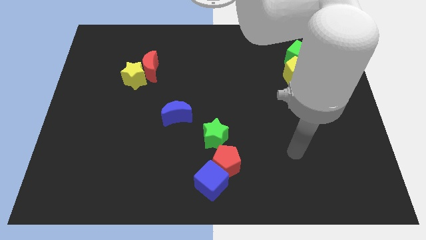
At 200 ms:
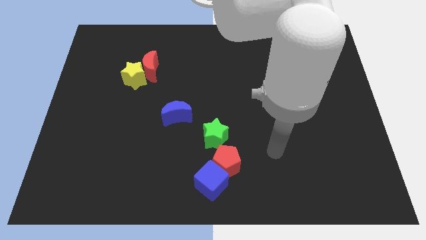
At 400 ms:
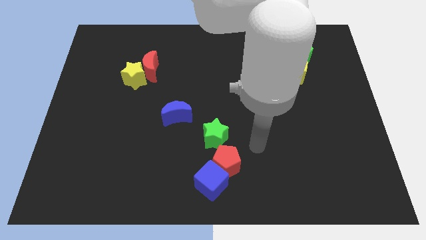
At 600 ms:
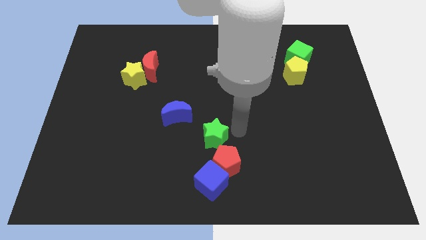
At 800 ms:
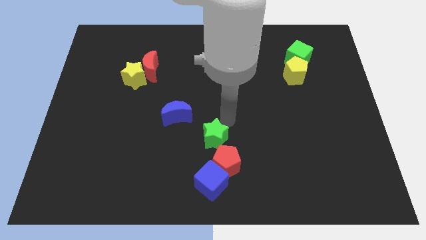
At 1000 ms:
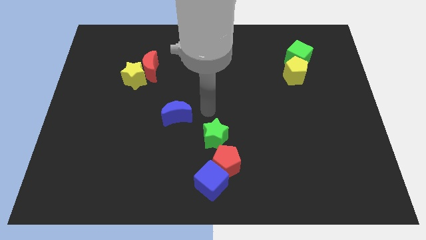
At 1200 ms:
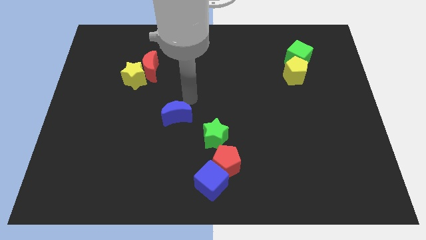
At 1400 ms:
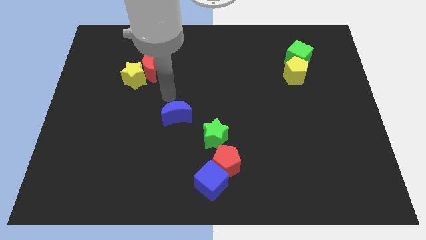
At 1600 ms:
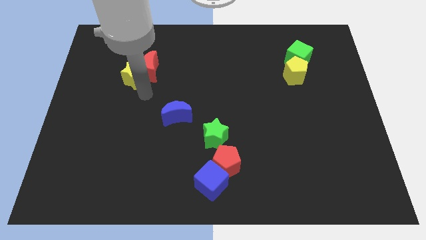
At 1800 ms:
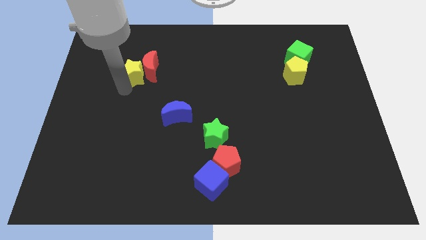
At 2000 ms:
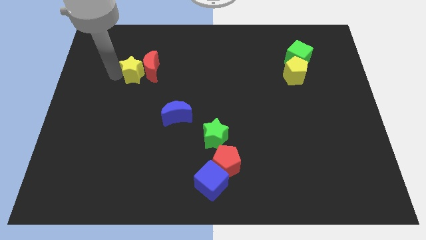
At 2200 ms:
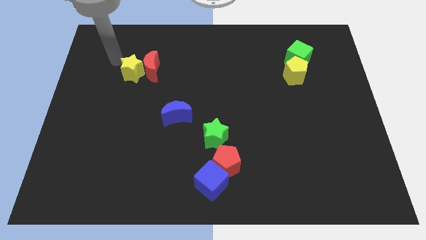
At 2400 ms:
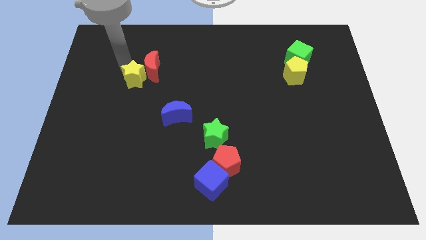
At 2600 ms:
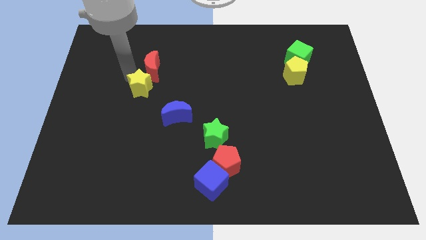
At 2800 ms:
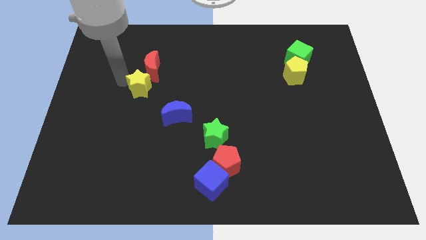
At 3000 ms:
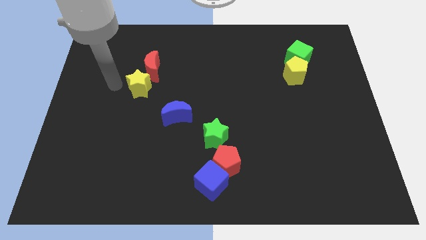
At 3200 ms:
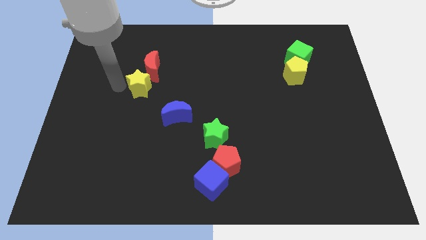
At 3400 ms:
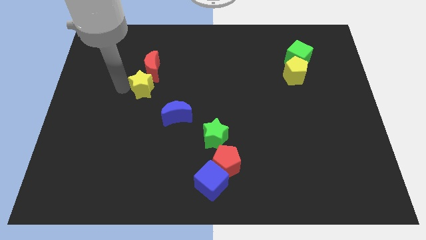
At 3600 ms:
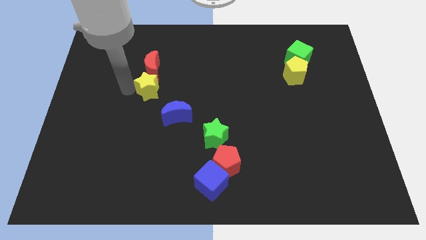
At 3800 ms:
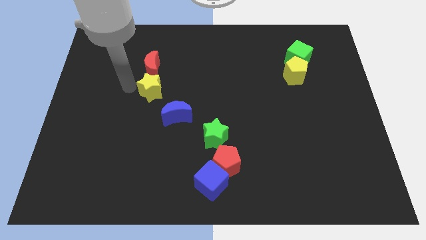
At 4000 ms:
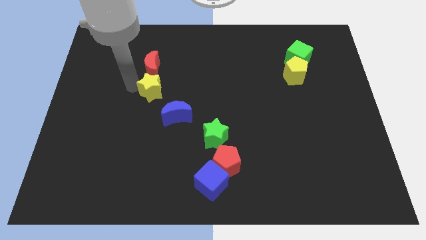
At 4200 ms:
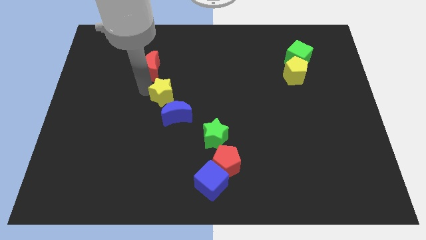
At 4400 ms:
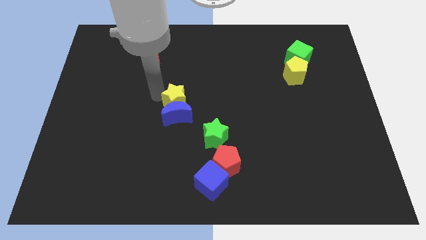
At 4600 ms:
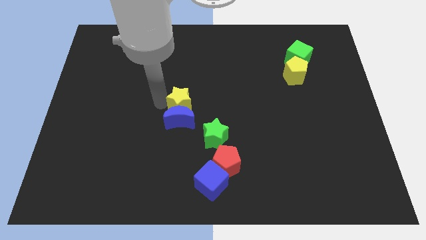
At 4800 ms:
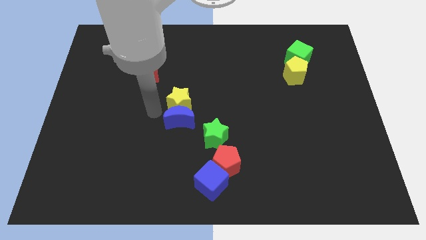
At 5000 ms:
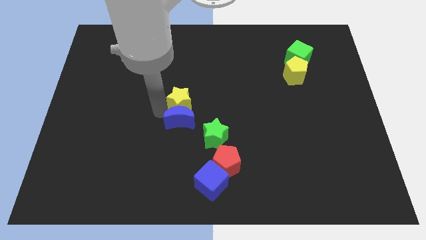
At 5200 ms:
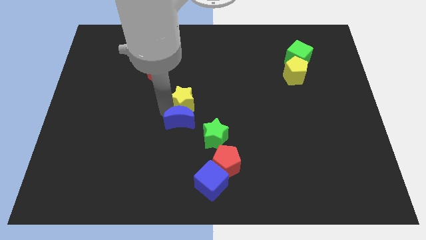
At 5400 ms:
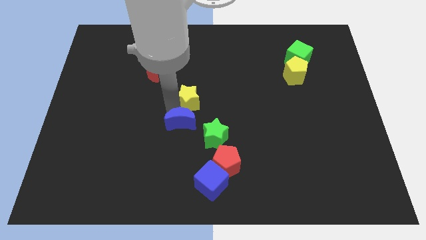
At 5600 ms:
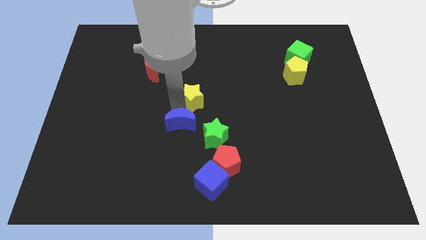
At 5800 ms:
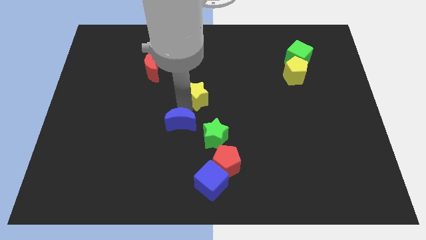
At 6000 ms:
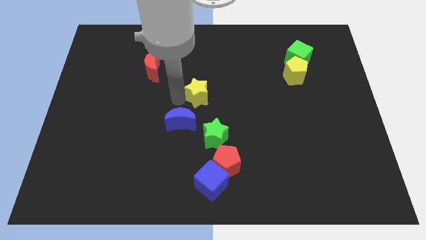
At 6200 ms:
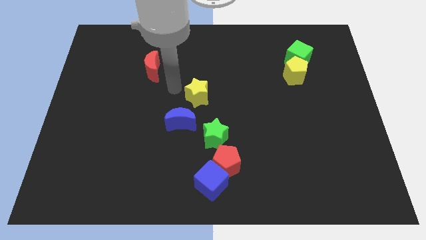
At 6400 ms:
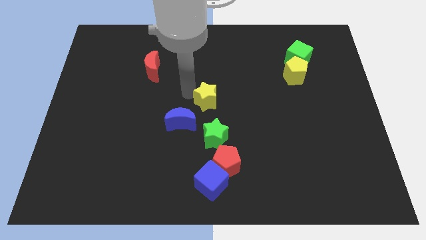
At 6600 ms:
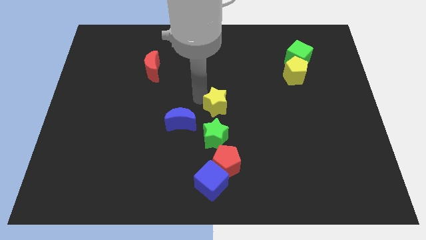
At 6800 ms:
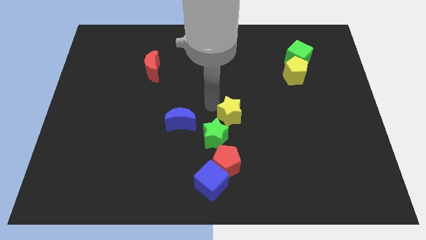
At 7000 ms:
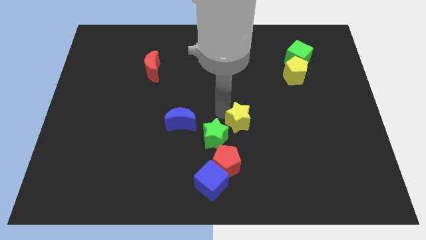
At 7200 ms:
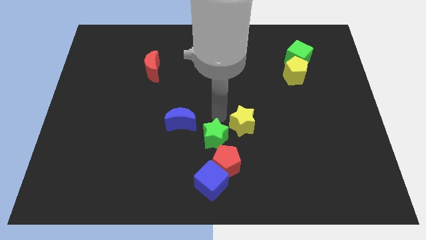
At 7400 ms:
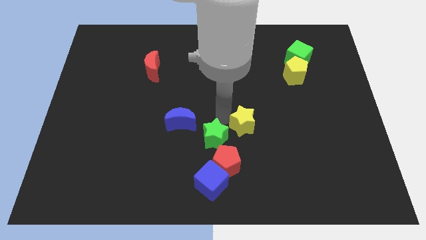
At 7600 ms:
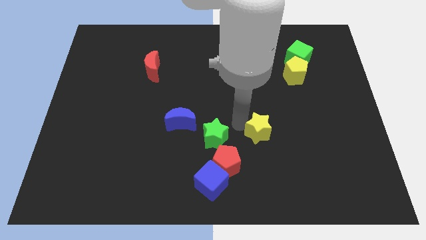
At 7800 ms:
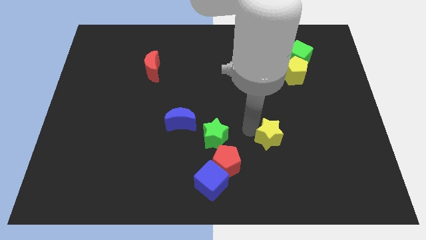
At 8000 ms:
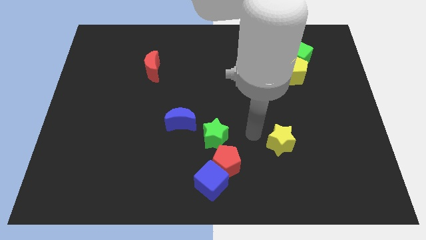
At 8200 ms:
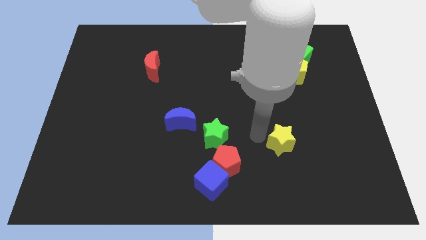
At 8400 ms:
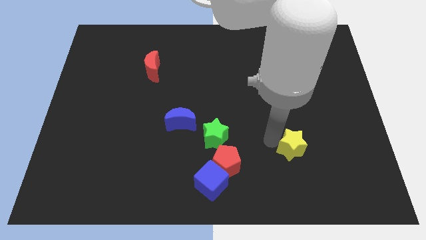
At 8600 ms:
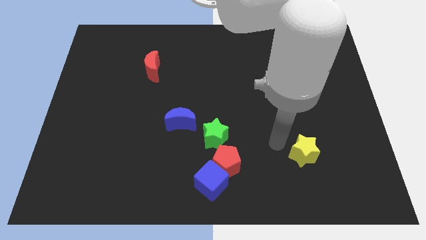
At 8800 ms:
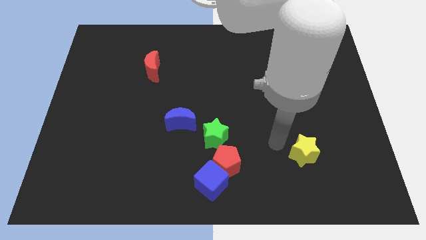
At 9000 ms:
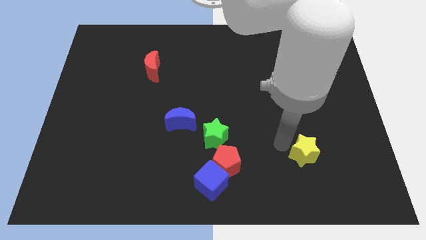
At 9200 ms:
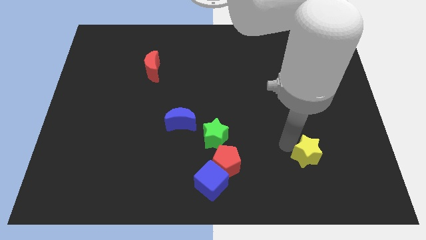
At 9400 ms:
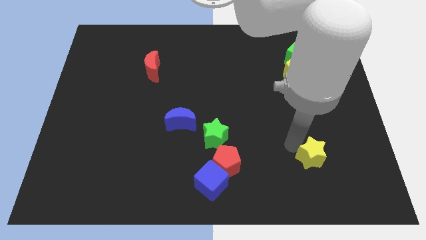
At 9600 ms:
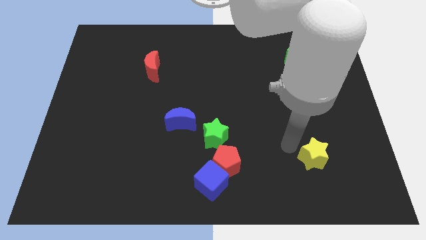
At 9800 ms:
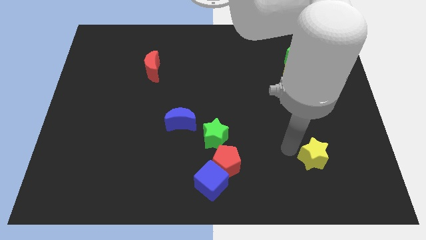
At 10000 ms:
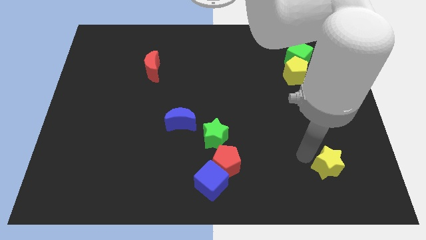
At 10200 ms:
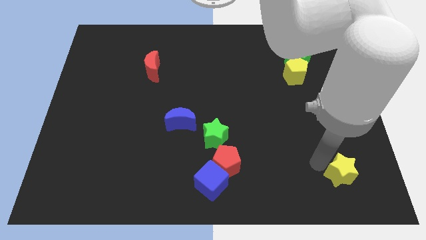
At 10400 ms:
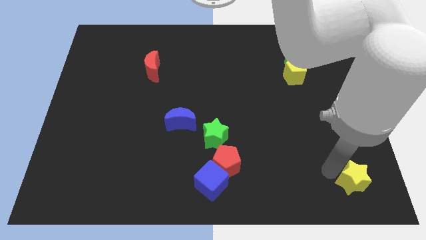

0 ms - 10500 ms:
push the yellow star to the bottom right

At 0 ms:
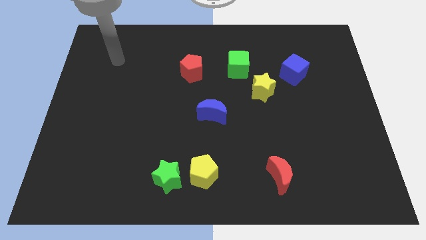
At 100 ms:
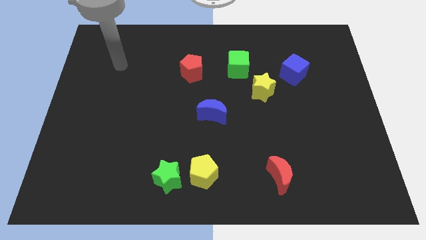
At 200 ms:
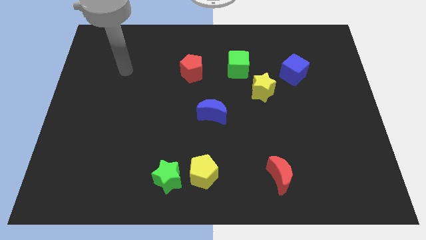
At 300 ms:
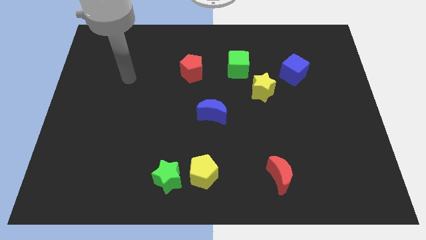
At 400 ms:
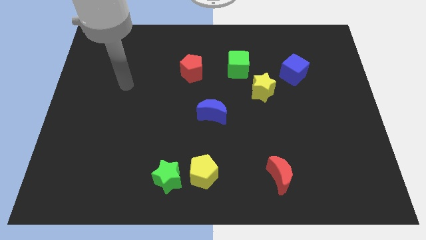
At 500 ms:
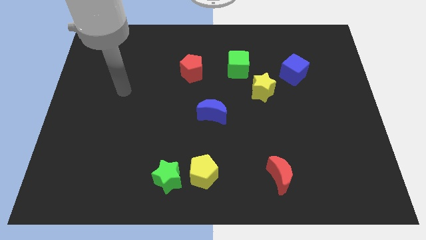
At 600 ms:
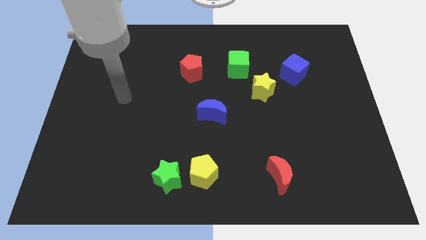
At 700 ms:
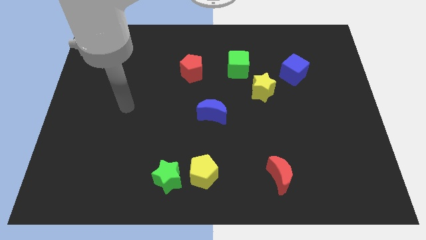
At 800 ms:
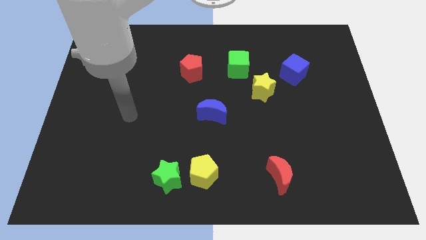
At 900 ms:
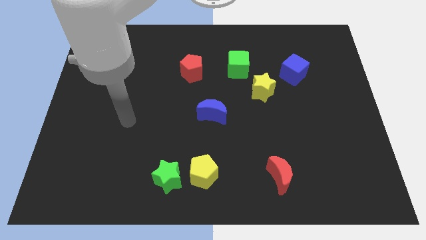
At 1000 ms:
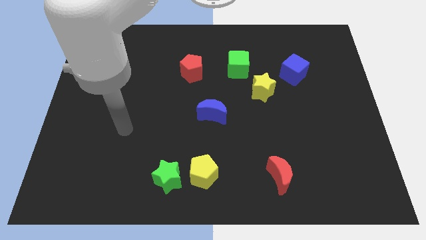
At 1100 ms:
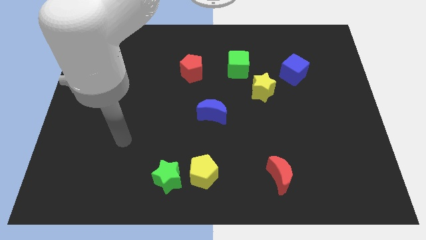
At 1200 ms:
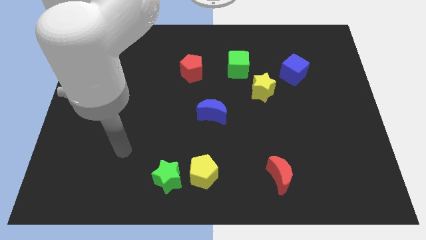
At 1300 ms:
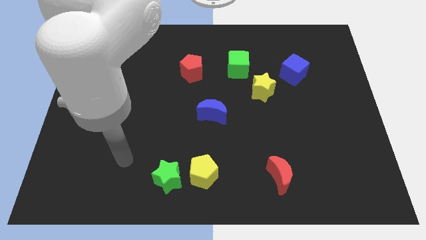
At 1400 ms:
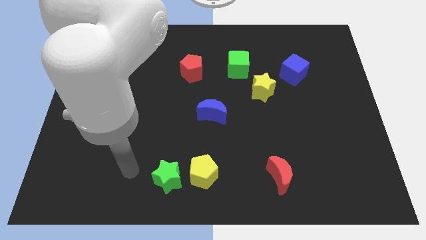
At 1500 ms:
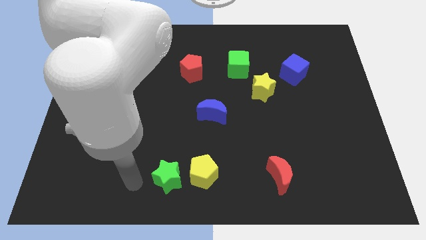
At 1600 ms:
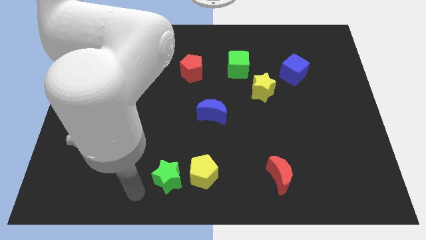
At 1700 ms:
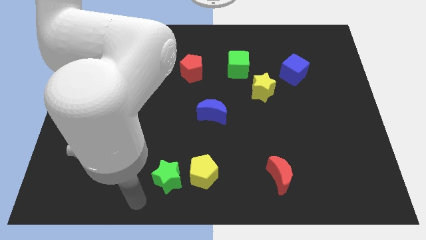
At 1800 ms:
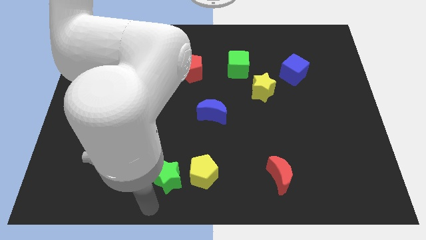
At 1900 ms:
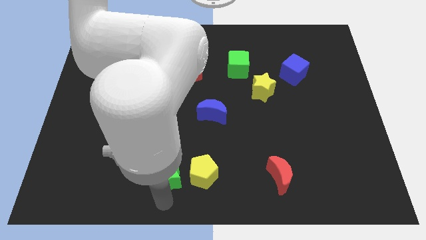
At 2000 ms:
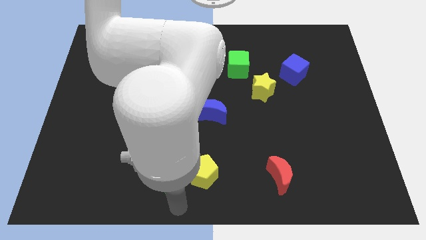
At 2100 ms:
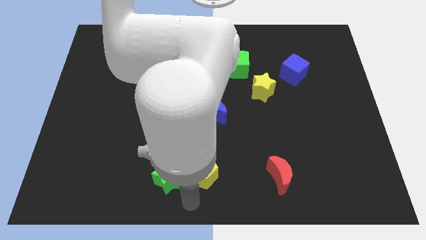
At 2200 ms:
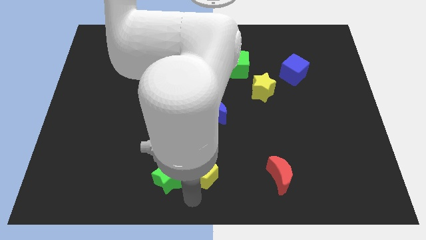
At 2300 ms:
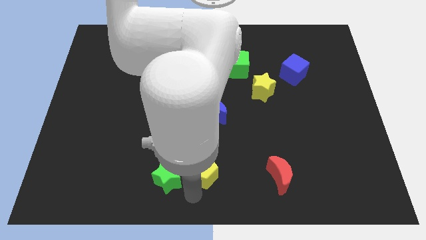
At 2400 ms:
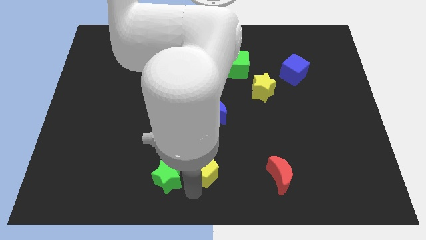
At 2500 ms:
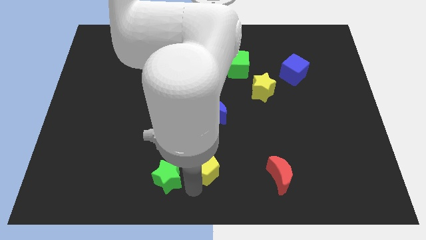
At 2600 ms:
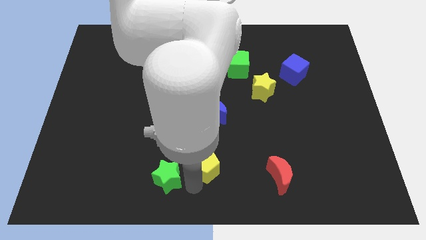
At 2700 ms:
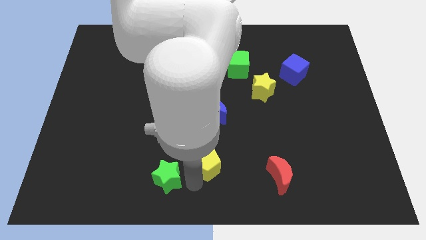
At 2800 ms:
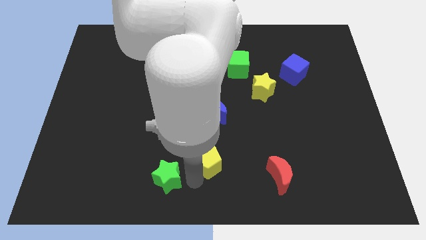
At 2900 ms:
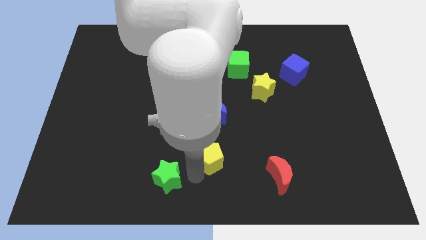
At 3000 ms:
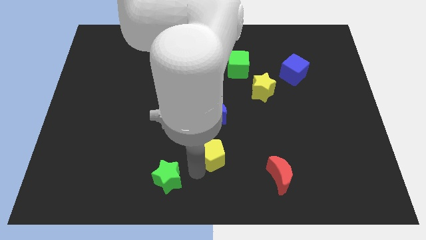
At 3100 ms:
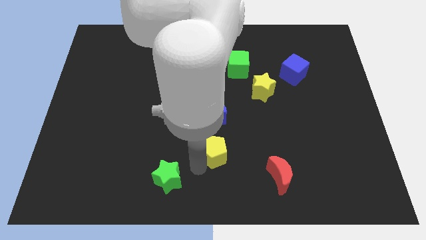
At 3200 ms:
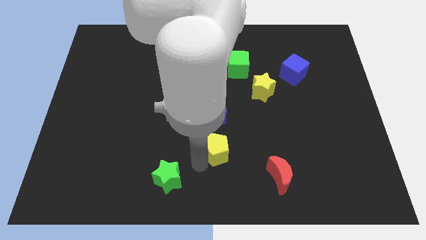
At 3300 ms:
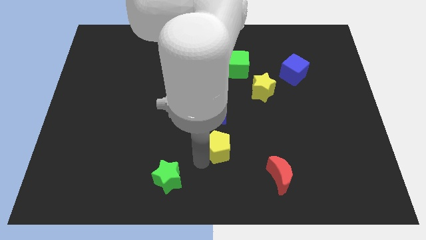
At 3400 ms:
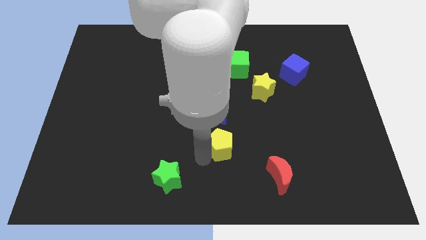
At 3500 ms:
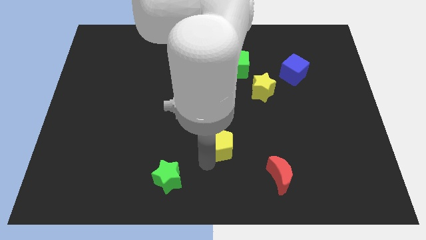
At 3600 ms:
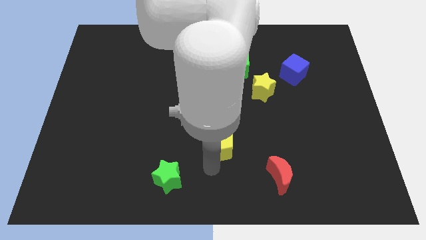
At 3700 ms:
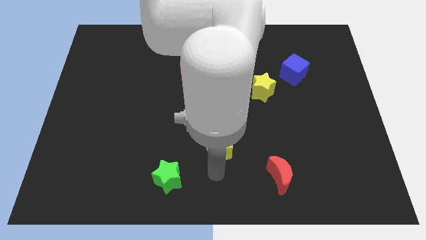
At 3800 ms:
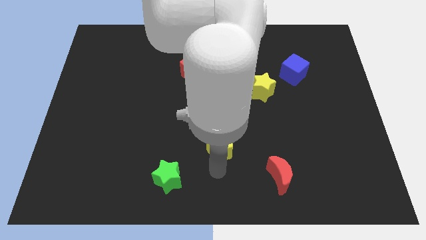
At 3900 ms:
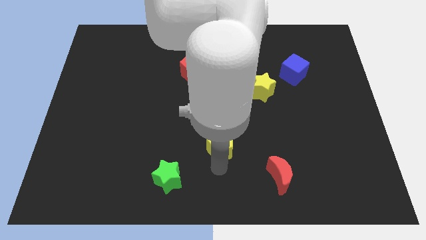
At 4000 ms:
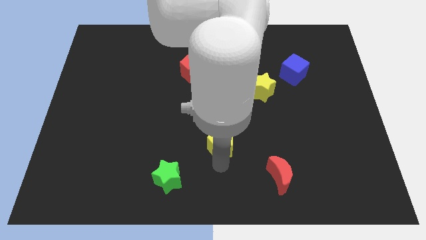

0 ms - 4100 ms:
put the yellow pentagon to the middle
